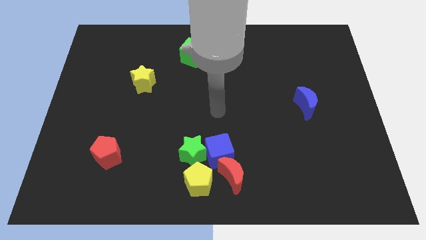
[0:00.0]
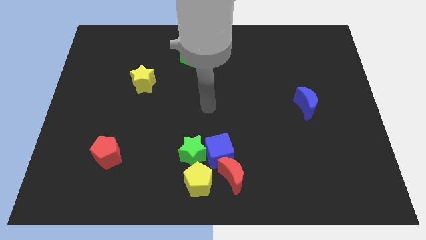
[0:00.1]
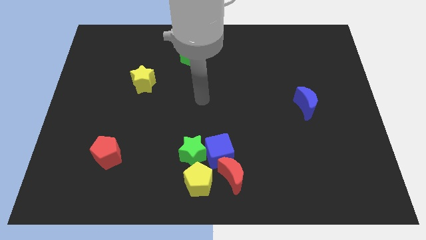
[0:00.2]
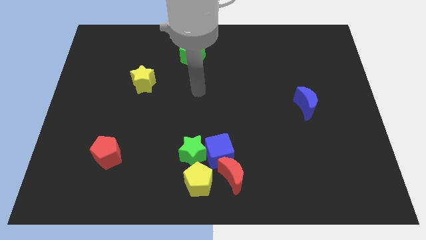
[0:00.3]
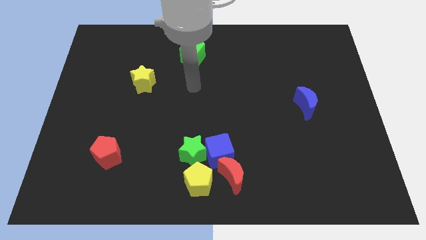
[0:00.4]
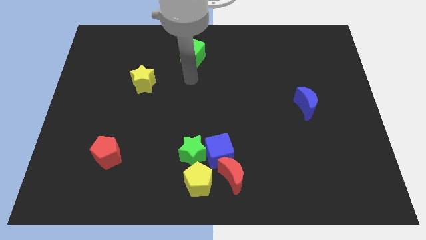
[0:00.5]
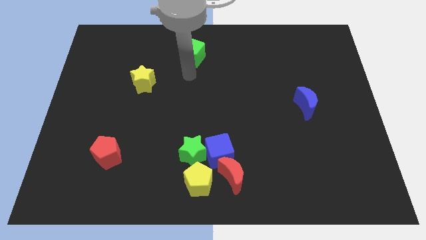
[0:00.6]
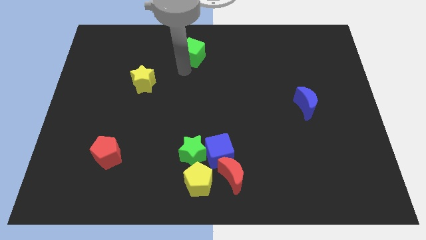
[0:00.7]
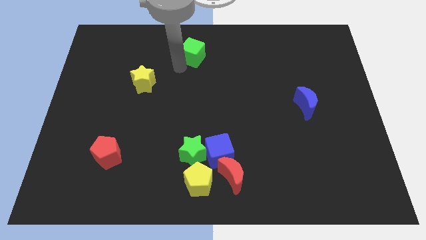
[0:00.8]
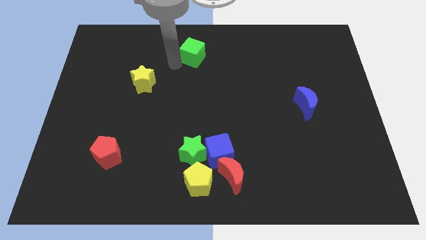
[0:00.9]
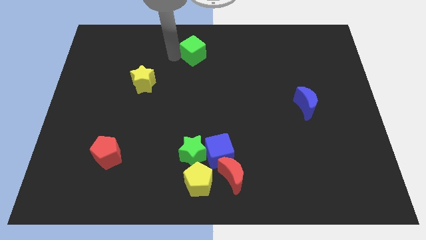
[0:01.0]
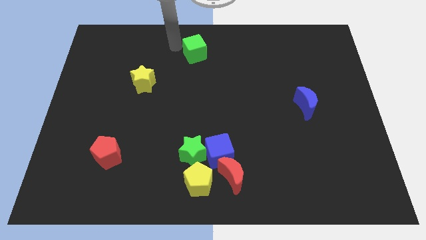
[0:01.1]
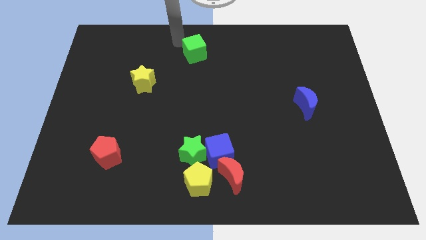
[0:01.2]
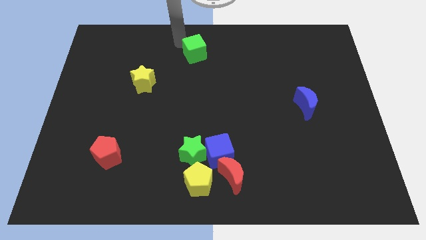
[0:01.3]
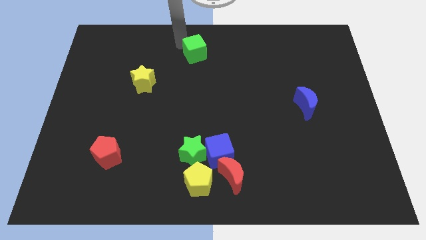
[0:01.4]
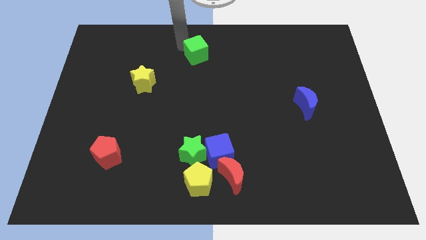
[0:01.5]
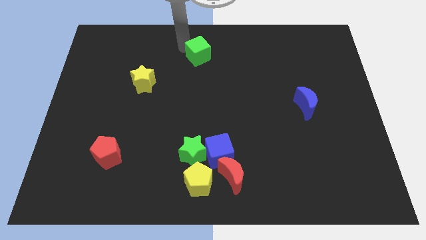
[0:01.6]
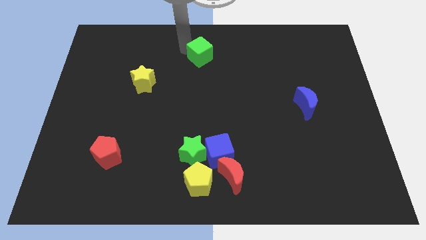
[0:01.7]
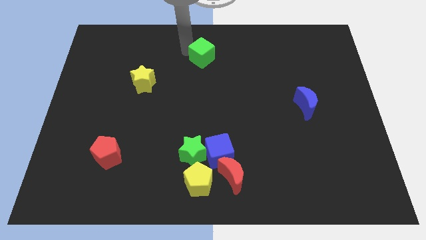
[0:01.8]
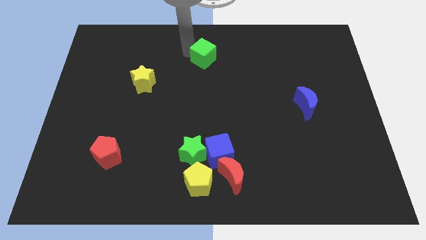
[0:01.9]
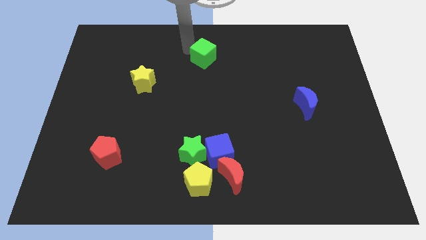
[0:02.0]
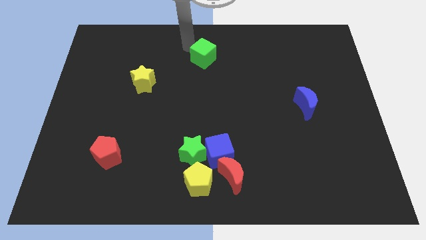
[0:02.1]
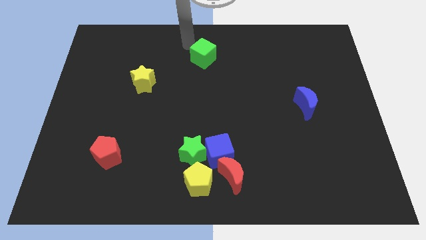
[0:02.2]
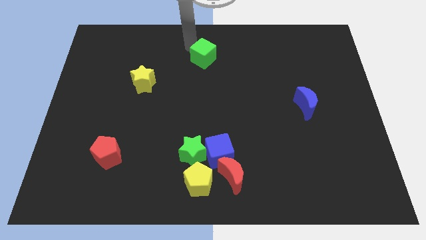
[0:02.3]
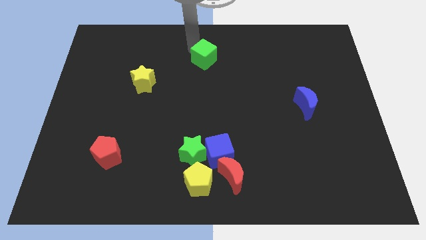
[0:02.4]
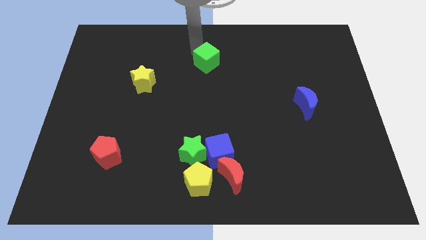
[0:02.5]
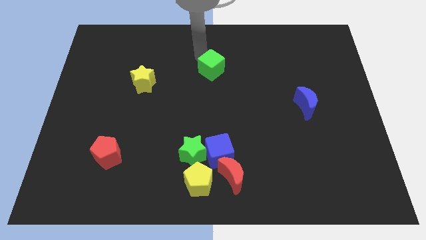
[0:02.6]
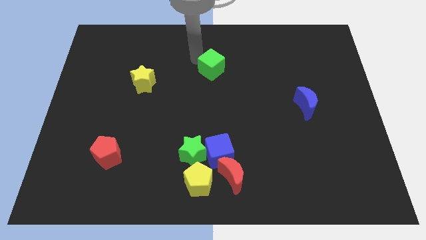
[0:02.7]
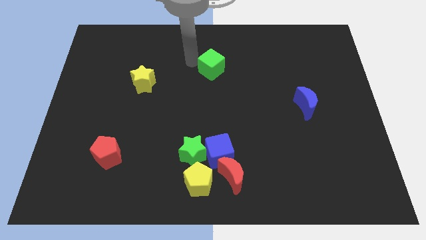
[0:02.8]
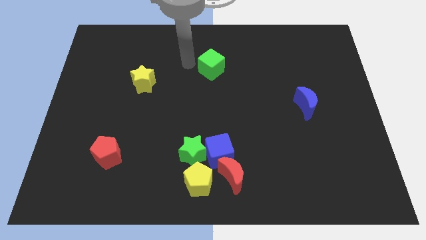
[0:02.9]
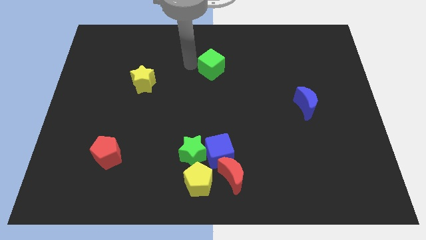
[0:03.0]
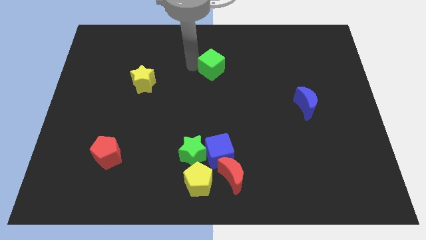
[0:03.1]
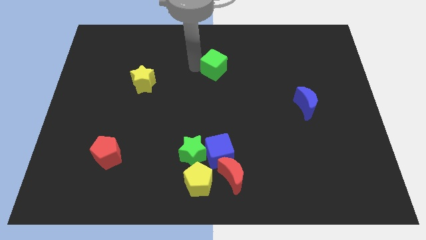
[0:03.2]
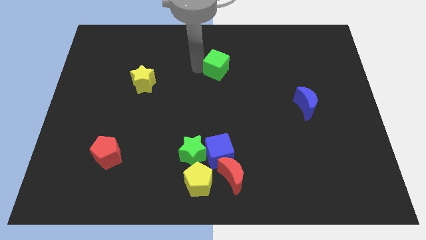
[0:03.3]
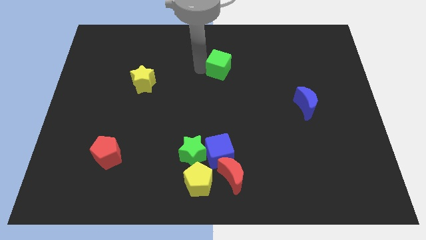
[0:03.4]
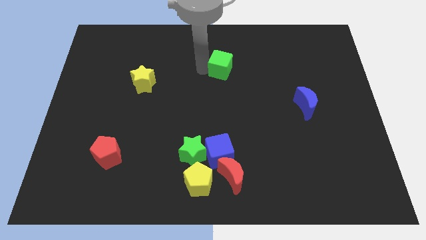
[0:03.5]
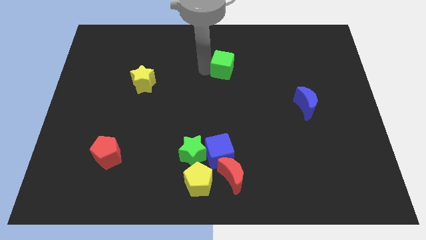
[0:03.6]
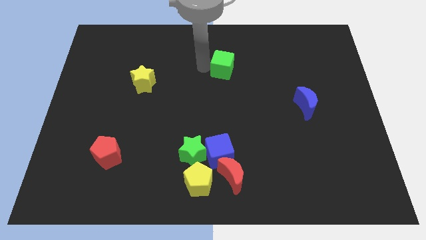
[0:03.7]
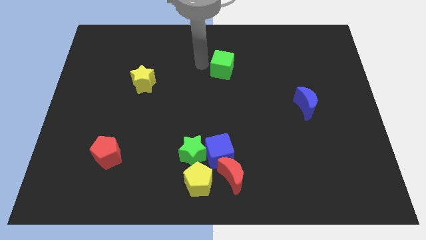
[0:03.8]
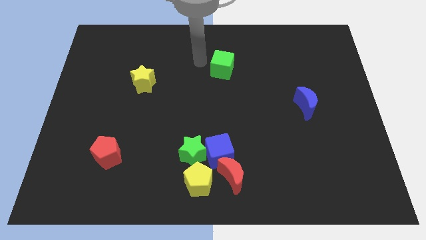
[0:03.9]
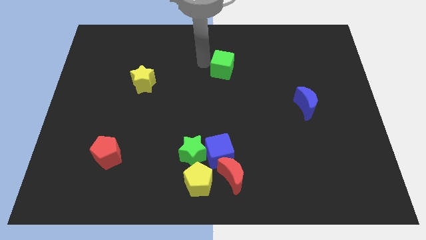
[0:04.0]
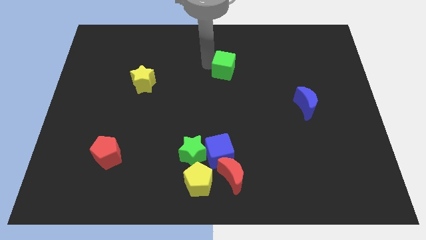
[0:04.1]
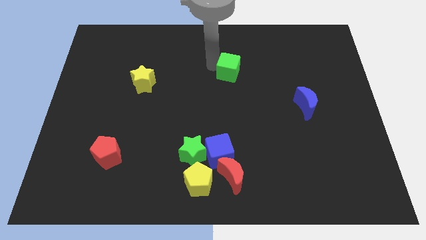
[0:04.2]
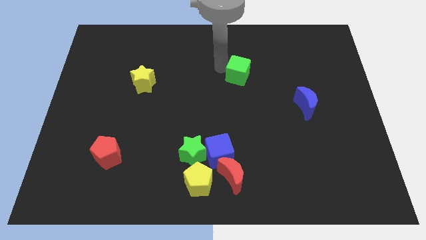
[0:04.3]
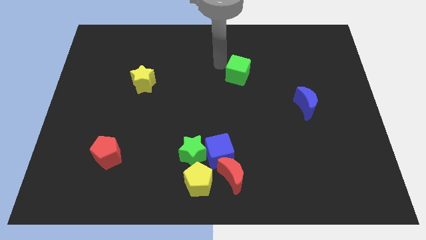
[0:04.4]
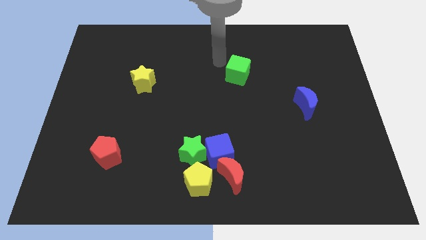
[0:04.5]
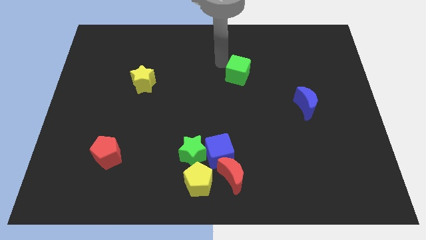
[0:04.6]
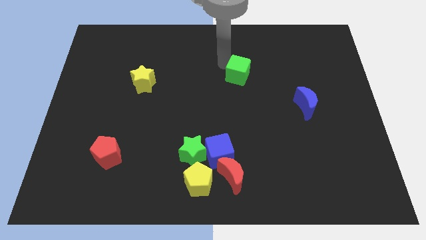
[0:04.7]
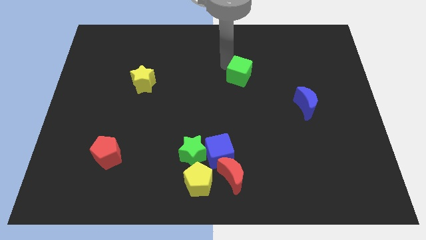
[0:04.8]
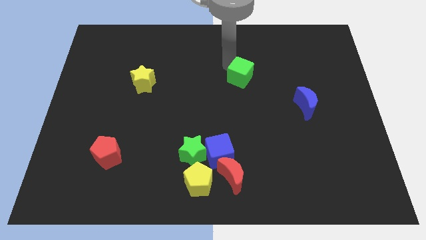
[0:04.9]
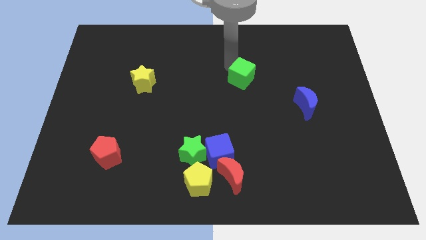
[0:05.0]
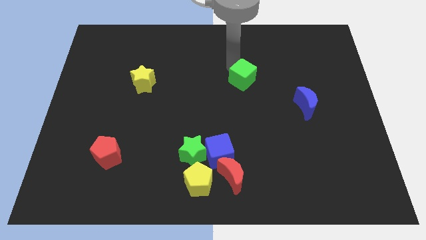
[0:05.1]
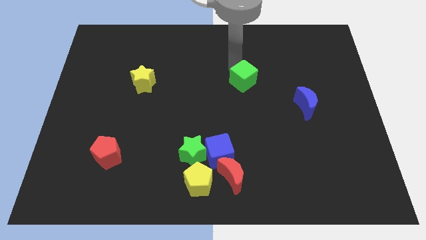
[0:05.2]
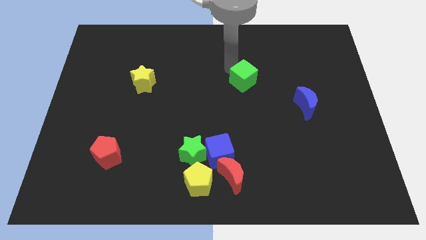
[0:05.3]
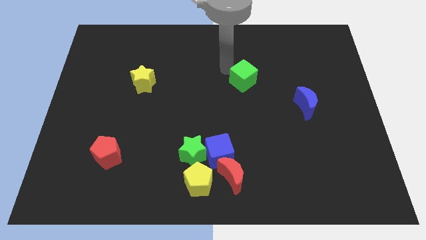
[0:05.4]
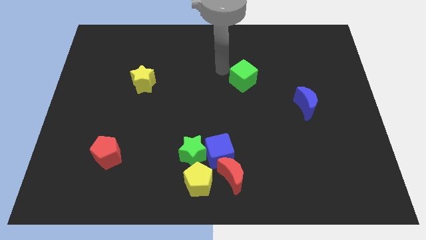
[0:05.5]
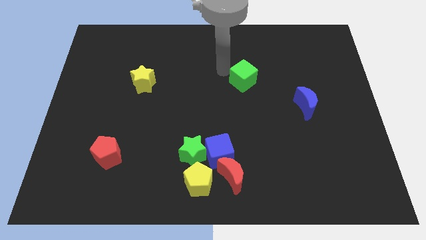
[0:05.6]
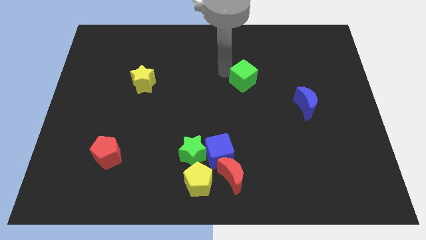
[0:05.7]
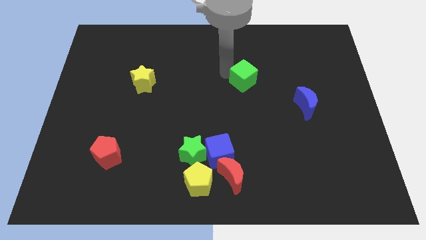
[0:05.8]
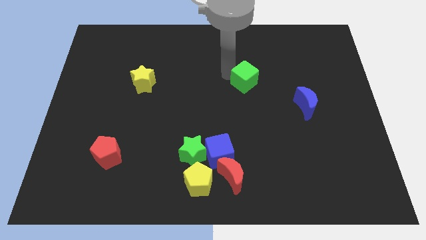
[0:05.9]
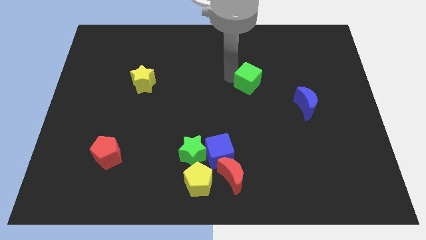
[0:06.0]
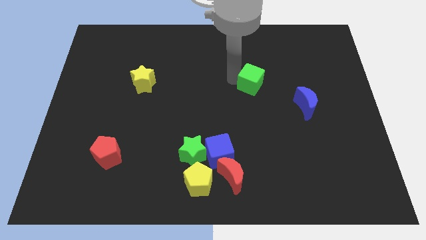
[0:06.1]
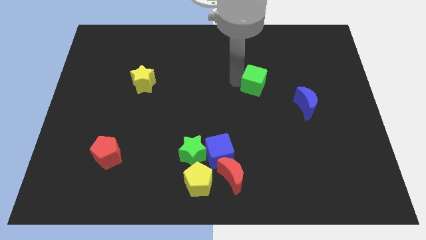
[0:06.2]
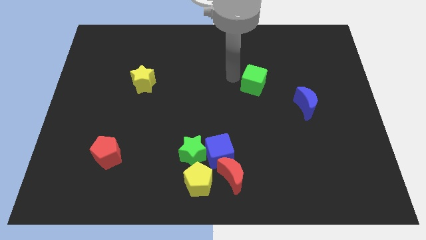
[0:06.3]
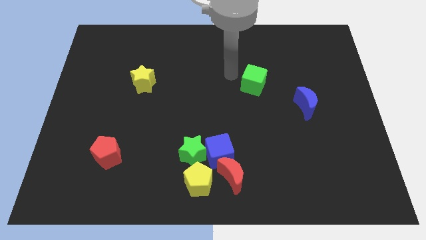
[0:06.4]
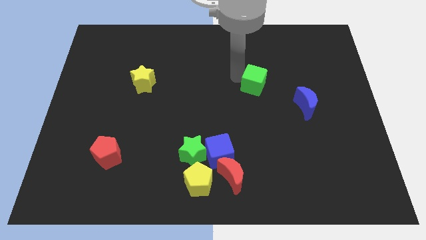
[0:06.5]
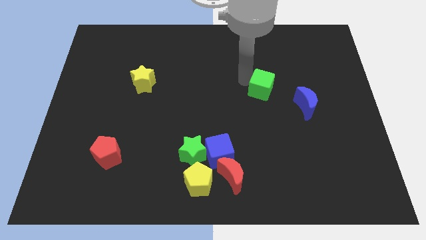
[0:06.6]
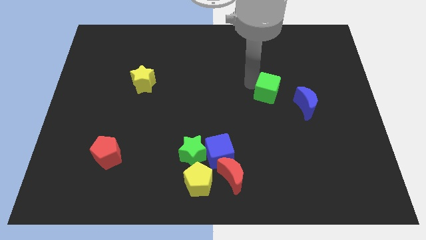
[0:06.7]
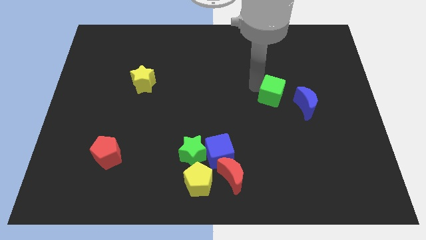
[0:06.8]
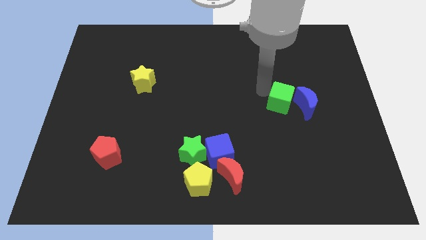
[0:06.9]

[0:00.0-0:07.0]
move the green cube to the blue moon

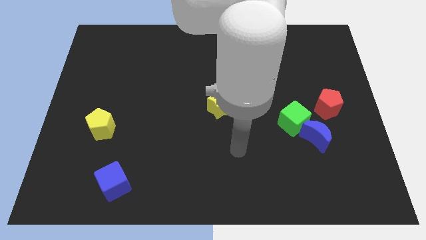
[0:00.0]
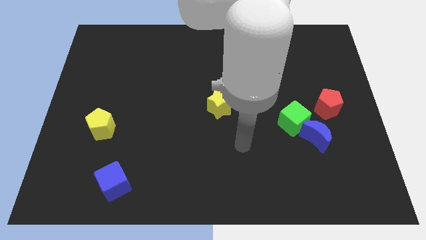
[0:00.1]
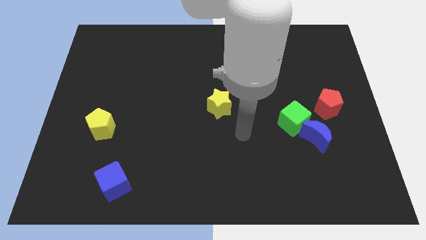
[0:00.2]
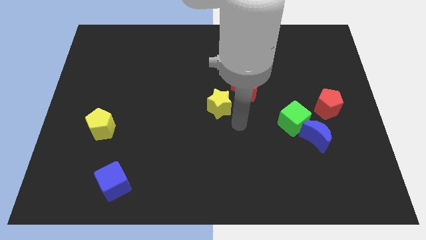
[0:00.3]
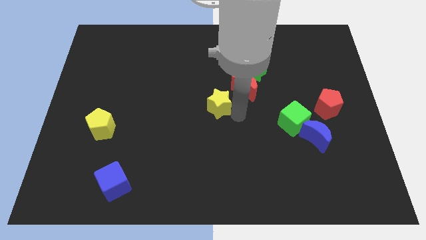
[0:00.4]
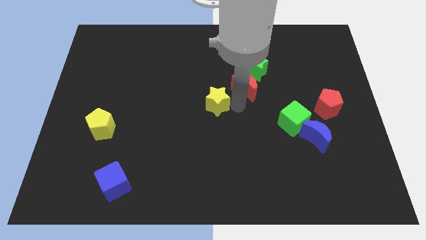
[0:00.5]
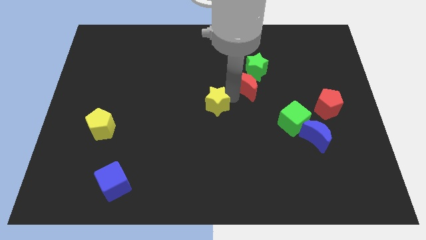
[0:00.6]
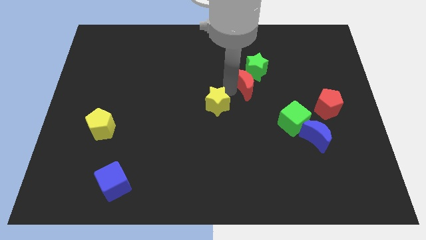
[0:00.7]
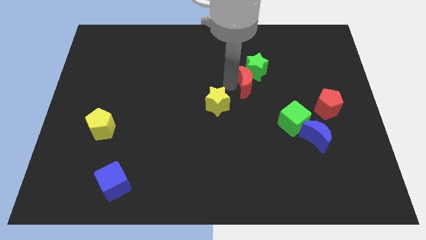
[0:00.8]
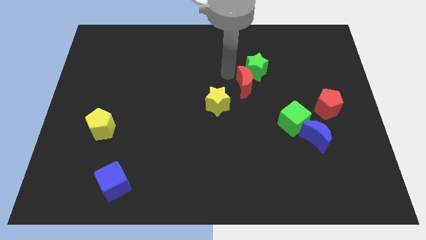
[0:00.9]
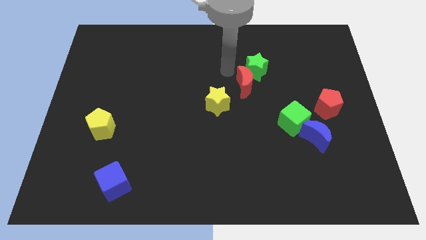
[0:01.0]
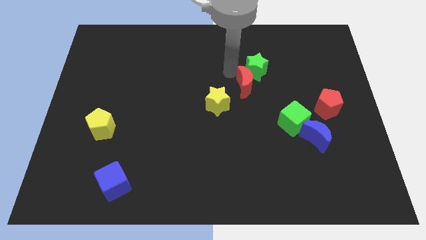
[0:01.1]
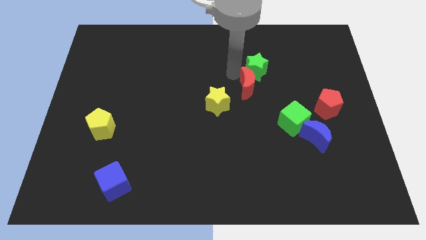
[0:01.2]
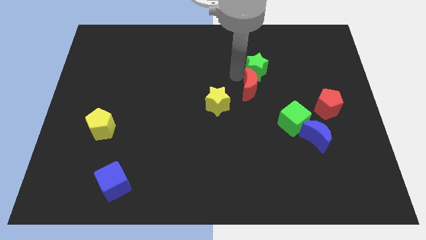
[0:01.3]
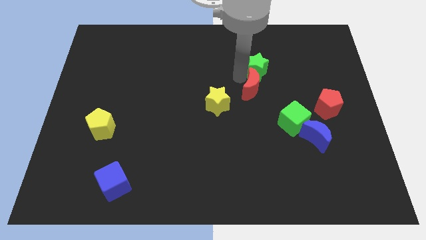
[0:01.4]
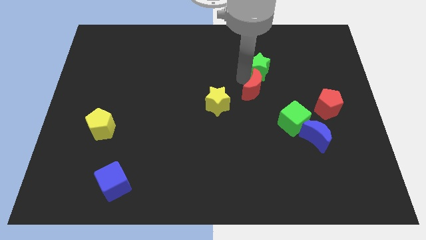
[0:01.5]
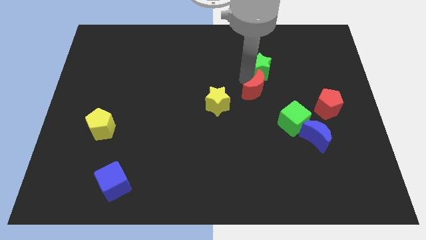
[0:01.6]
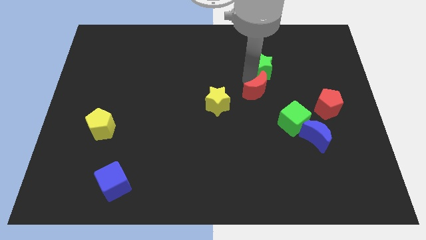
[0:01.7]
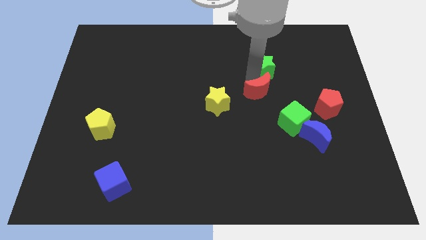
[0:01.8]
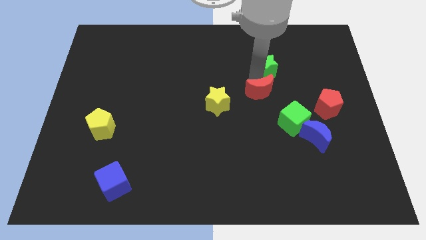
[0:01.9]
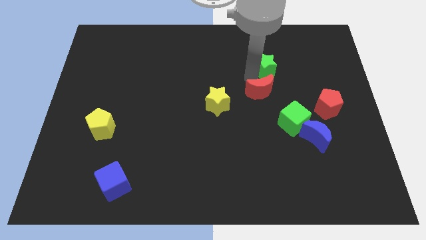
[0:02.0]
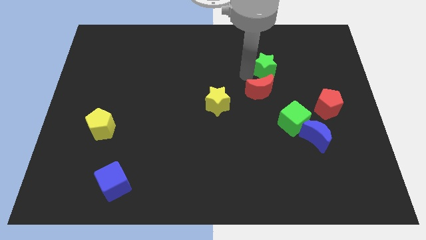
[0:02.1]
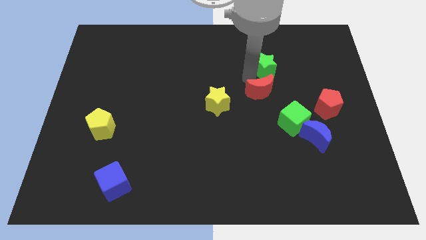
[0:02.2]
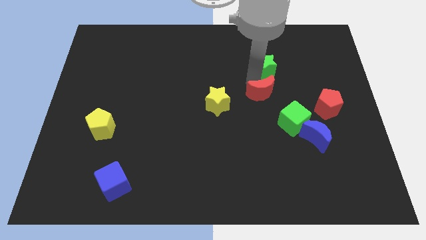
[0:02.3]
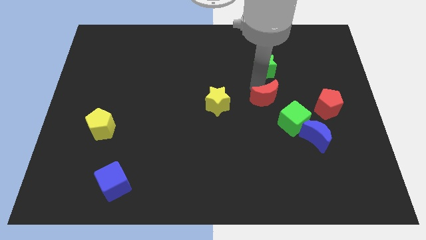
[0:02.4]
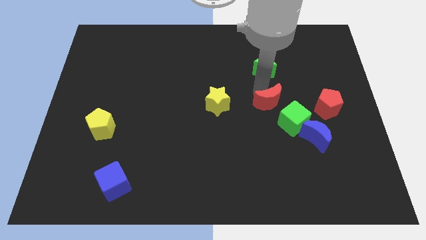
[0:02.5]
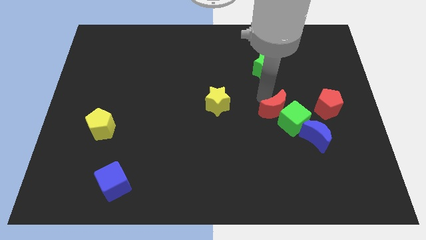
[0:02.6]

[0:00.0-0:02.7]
put the red moon close to the green cube
